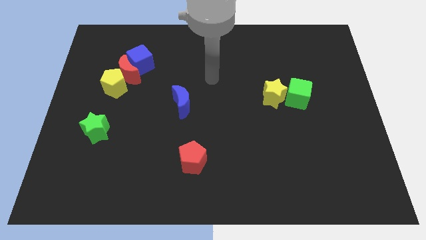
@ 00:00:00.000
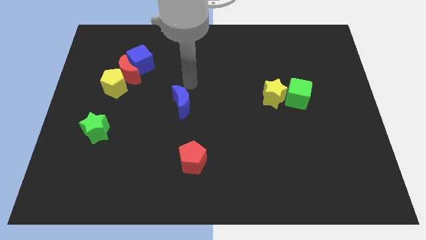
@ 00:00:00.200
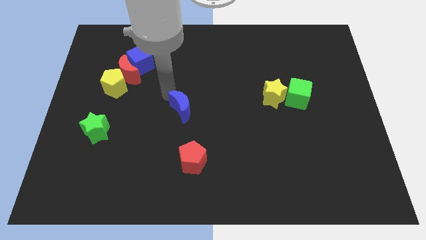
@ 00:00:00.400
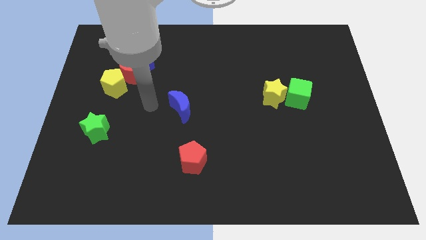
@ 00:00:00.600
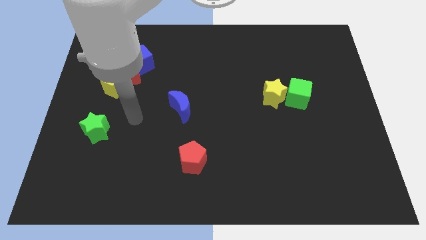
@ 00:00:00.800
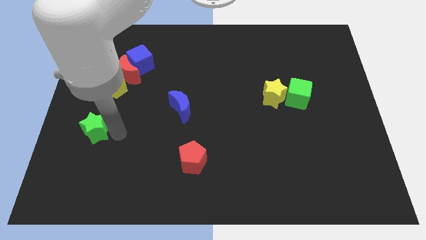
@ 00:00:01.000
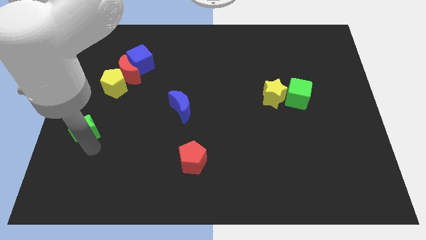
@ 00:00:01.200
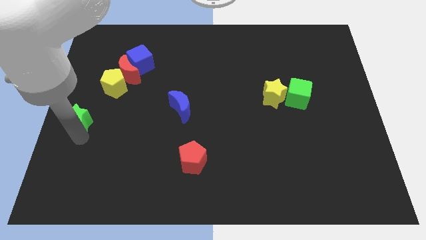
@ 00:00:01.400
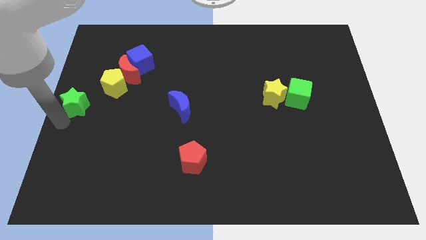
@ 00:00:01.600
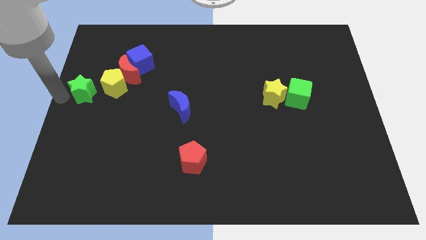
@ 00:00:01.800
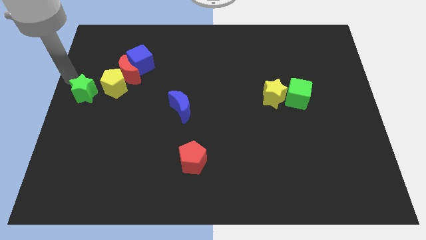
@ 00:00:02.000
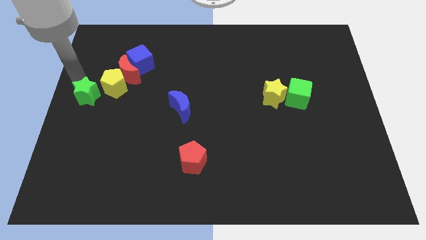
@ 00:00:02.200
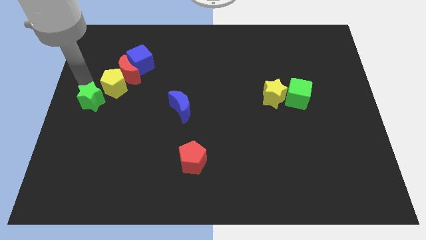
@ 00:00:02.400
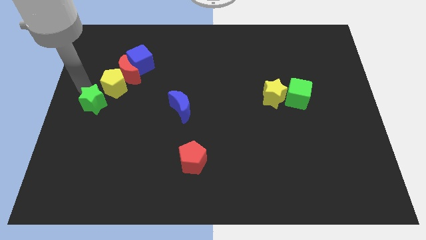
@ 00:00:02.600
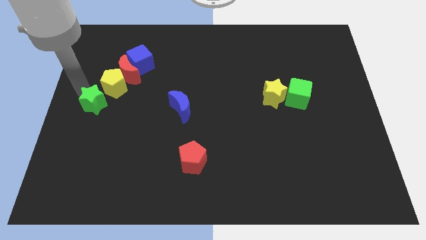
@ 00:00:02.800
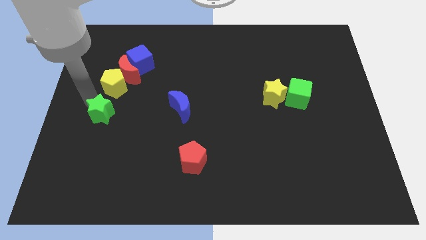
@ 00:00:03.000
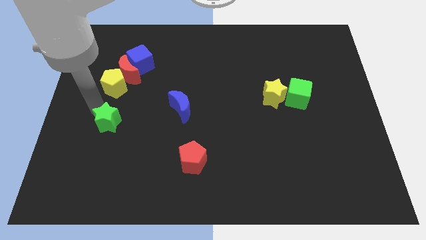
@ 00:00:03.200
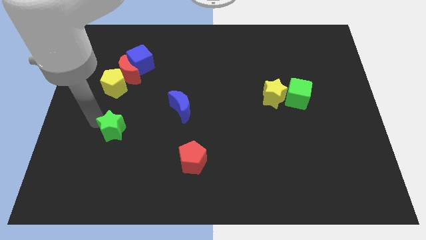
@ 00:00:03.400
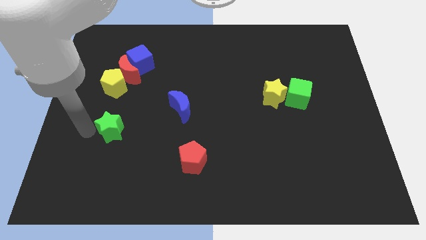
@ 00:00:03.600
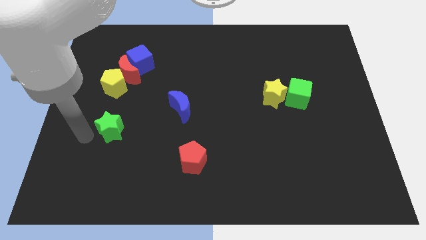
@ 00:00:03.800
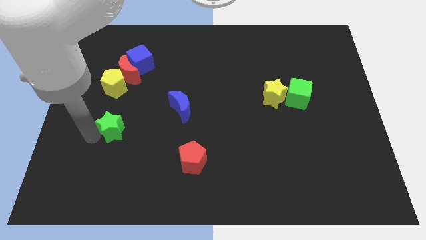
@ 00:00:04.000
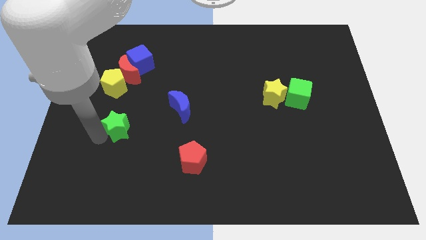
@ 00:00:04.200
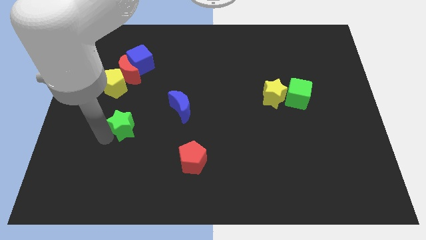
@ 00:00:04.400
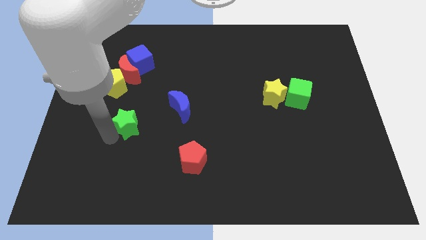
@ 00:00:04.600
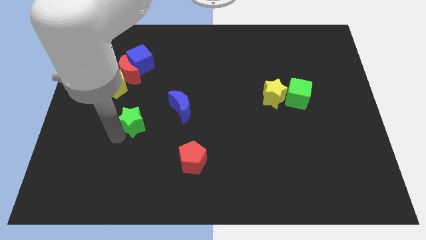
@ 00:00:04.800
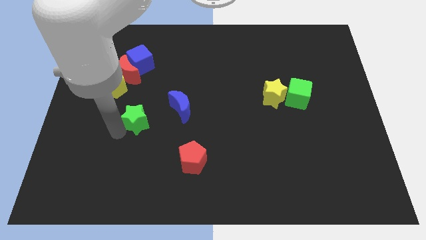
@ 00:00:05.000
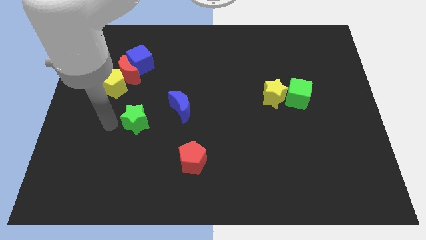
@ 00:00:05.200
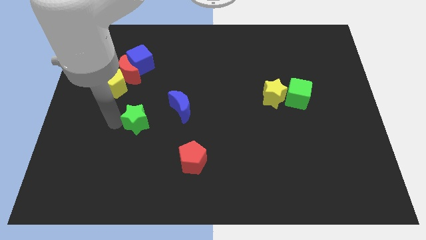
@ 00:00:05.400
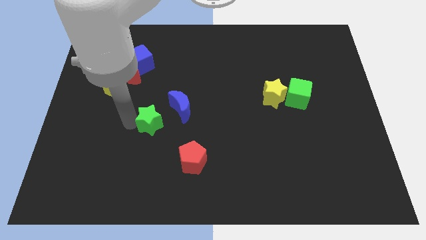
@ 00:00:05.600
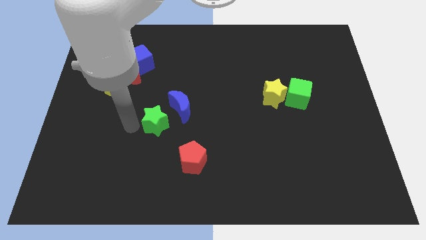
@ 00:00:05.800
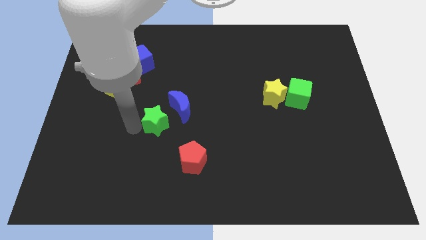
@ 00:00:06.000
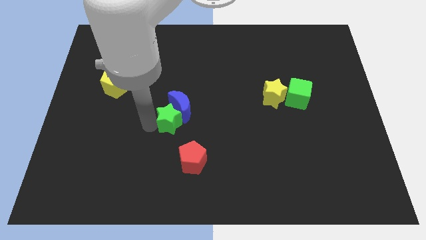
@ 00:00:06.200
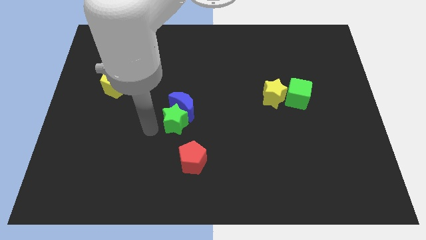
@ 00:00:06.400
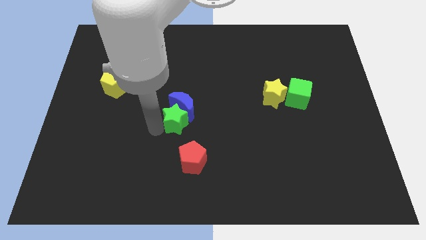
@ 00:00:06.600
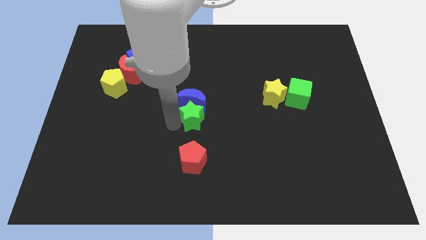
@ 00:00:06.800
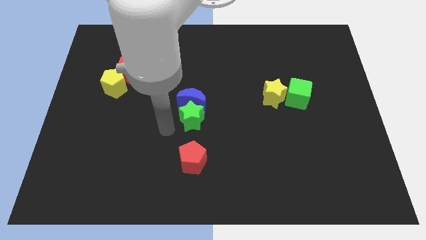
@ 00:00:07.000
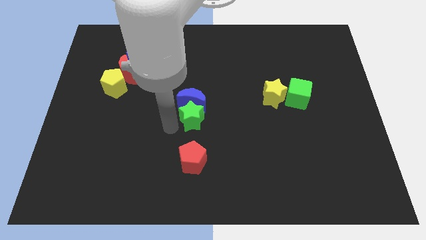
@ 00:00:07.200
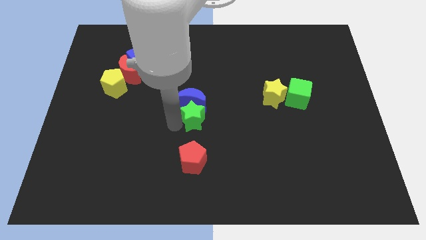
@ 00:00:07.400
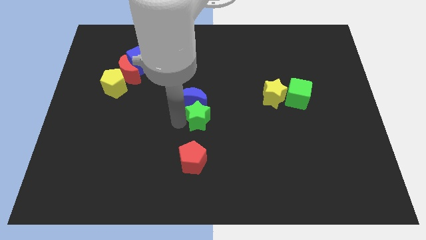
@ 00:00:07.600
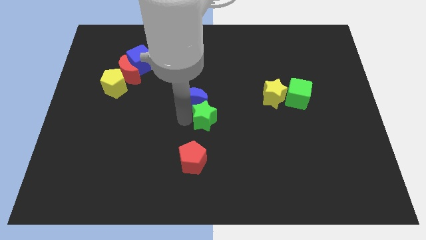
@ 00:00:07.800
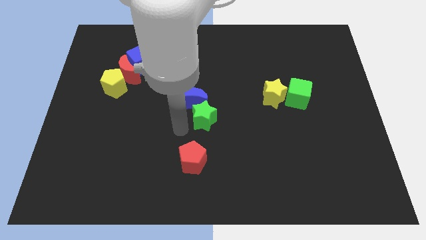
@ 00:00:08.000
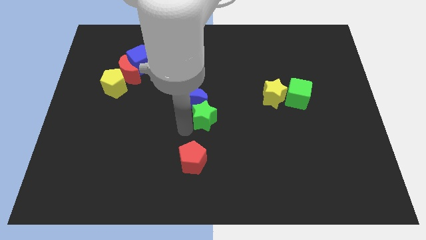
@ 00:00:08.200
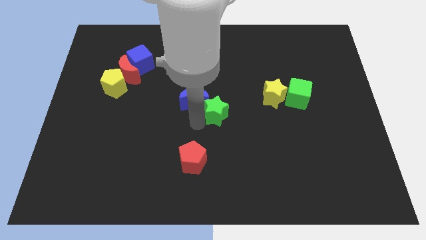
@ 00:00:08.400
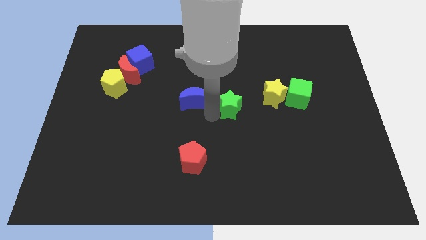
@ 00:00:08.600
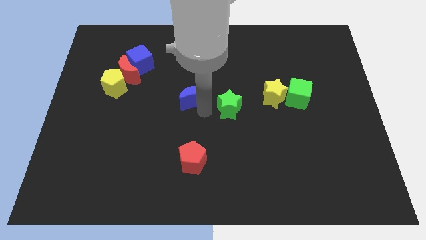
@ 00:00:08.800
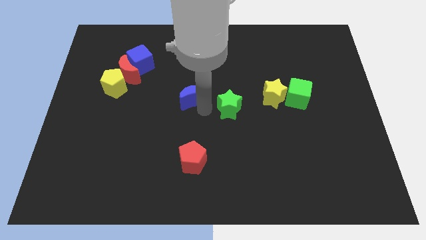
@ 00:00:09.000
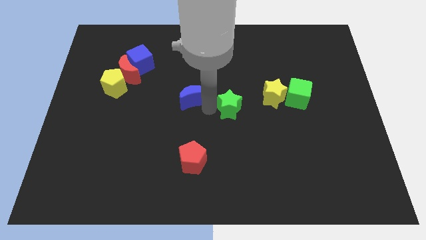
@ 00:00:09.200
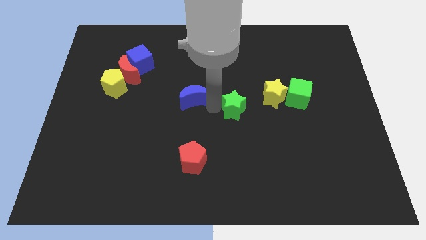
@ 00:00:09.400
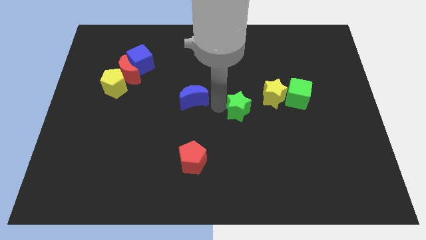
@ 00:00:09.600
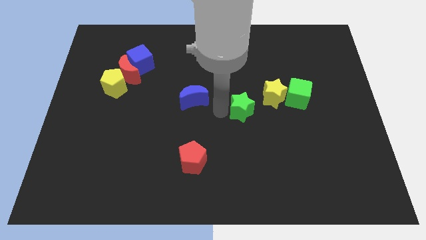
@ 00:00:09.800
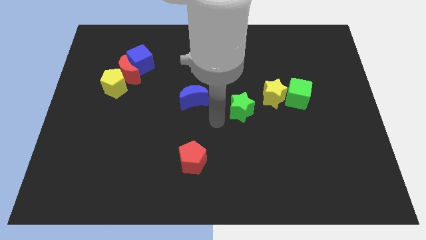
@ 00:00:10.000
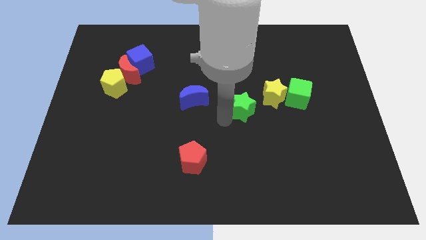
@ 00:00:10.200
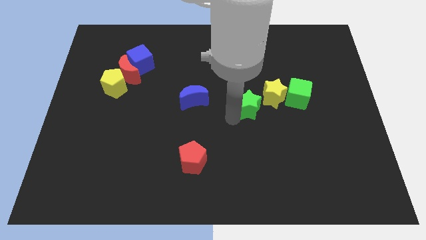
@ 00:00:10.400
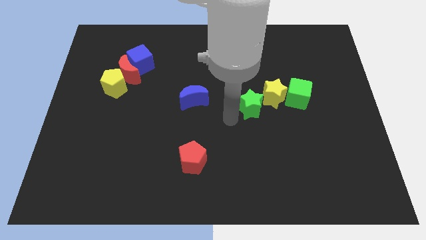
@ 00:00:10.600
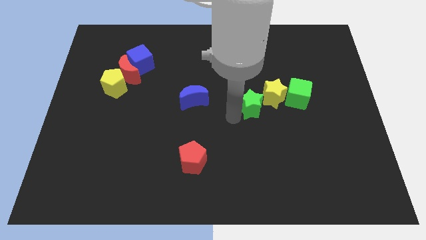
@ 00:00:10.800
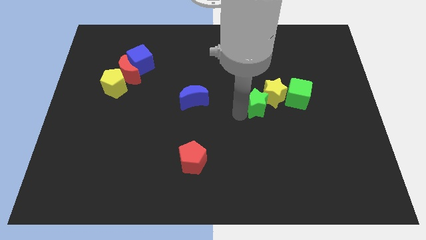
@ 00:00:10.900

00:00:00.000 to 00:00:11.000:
push the green star towards the yellow star

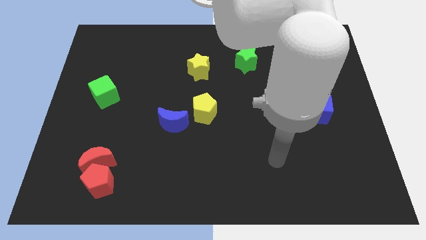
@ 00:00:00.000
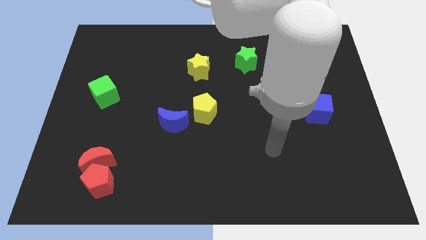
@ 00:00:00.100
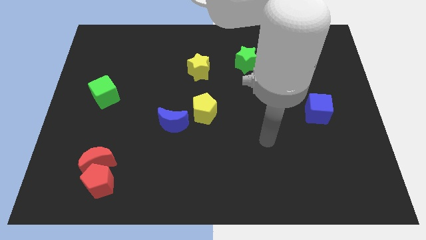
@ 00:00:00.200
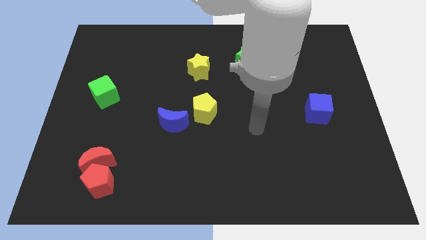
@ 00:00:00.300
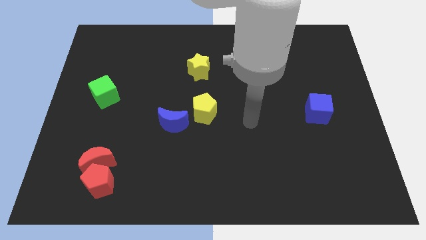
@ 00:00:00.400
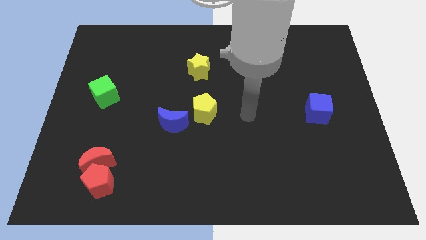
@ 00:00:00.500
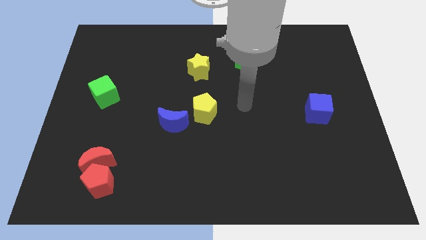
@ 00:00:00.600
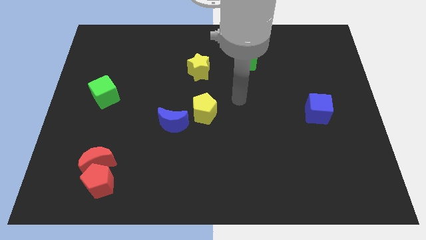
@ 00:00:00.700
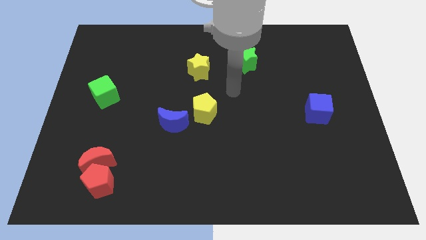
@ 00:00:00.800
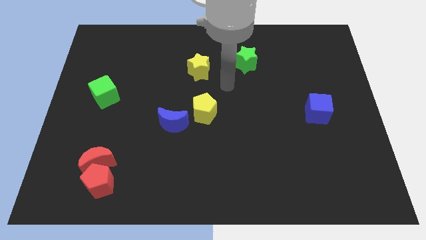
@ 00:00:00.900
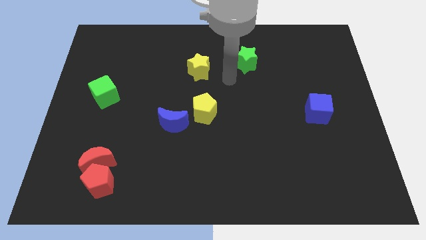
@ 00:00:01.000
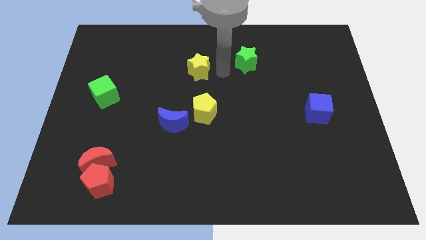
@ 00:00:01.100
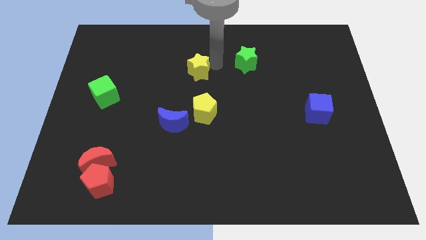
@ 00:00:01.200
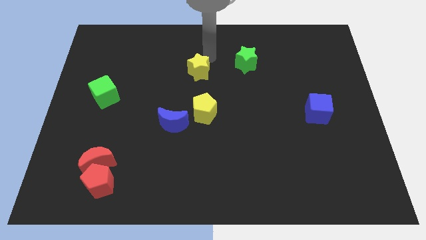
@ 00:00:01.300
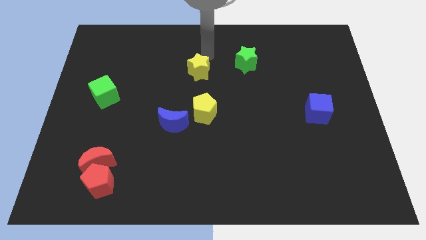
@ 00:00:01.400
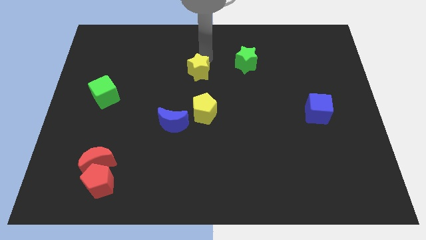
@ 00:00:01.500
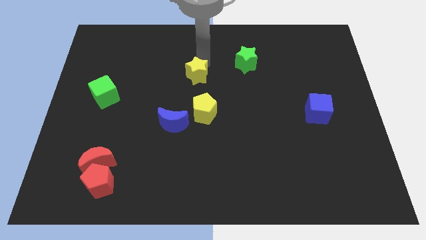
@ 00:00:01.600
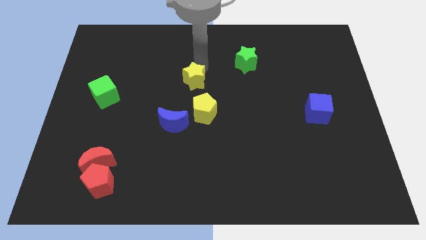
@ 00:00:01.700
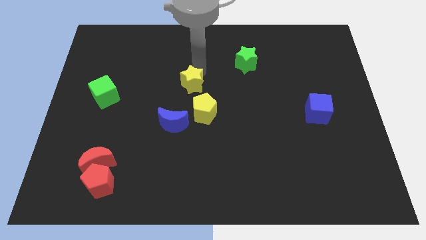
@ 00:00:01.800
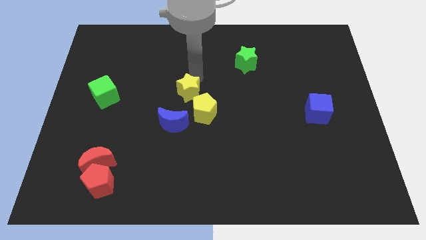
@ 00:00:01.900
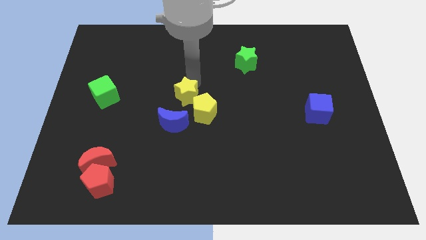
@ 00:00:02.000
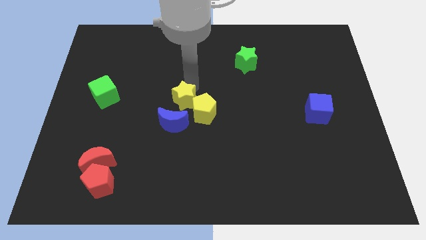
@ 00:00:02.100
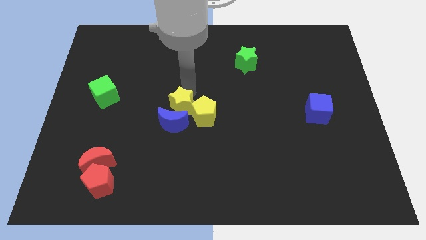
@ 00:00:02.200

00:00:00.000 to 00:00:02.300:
move the yellow star towards the blue moon
